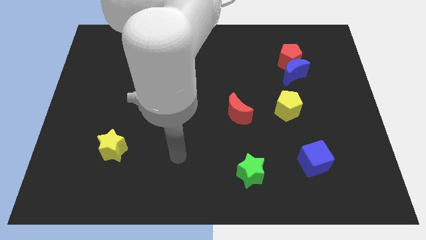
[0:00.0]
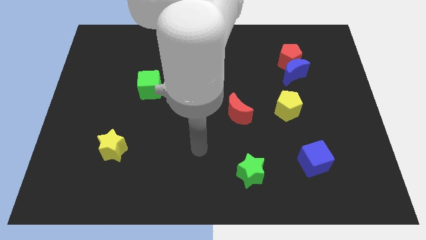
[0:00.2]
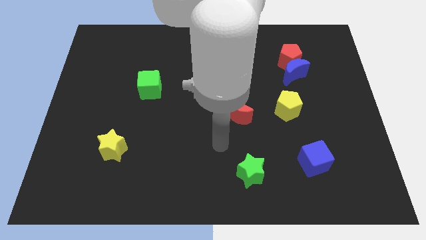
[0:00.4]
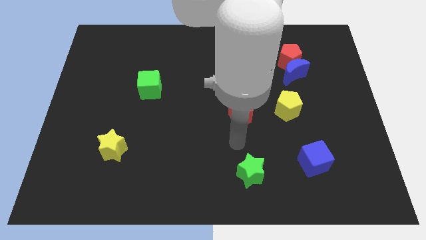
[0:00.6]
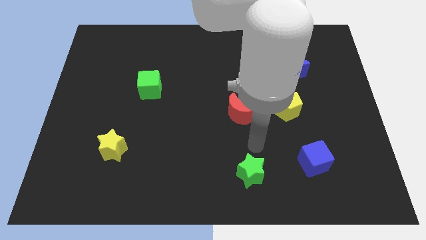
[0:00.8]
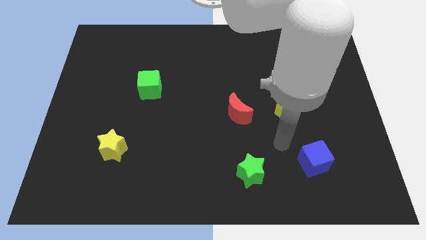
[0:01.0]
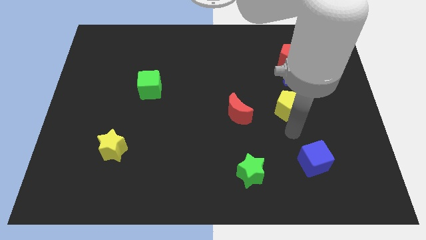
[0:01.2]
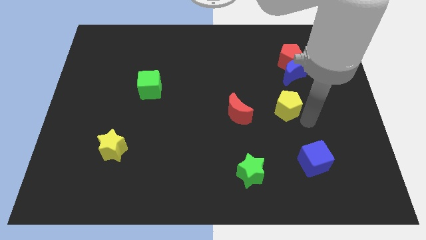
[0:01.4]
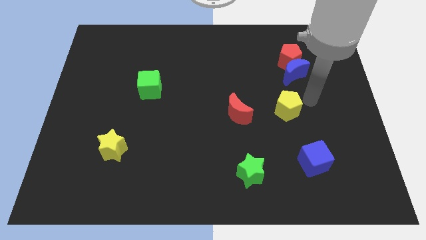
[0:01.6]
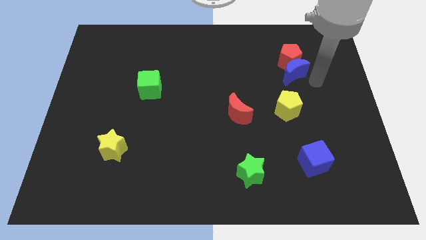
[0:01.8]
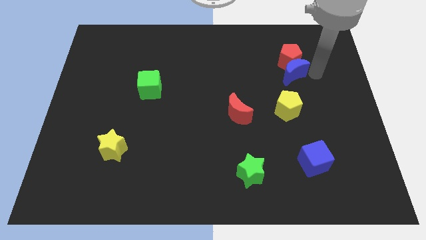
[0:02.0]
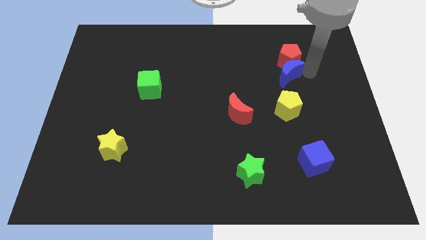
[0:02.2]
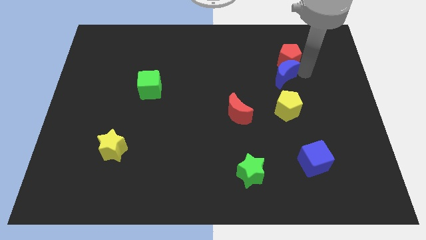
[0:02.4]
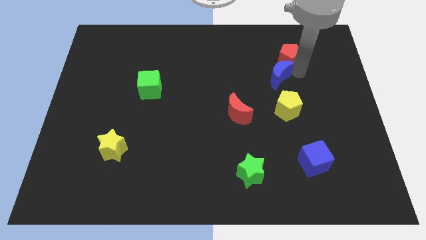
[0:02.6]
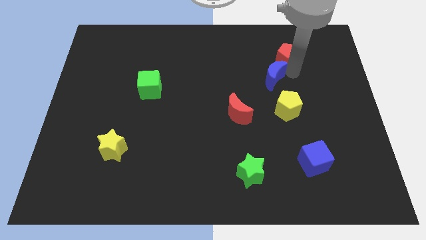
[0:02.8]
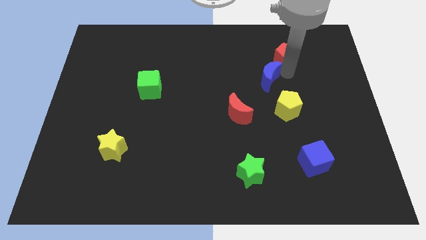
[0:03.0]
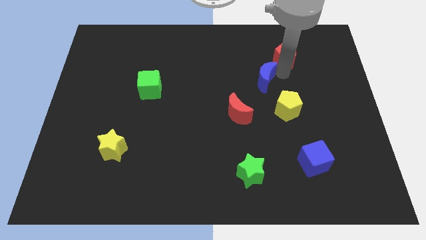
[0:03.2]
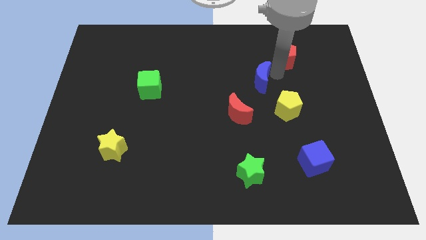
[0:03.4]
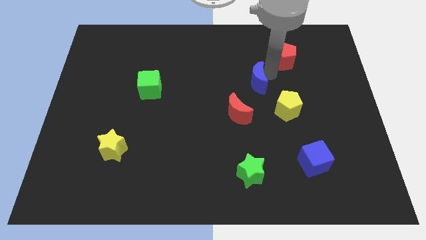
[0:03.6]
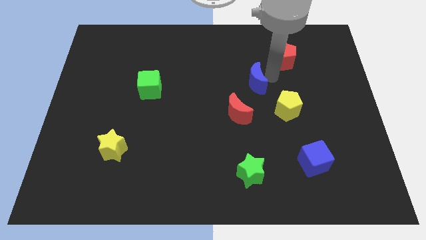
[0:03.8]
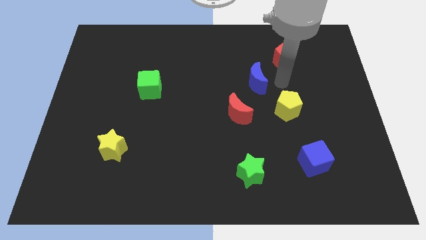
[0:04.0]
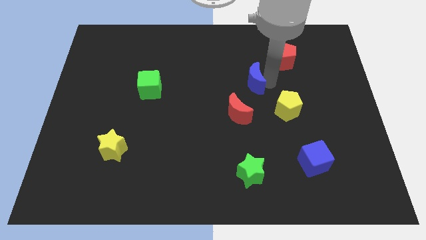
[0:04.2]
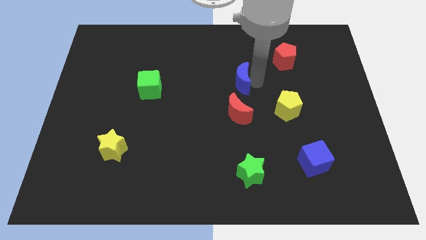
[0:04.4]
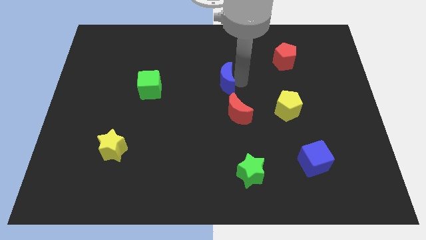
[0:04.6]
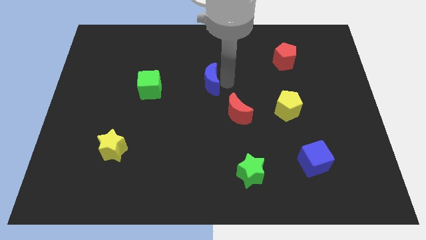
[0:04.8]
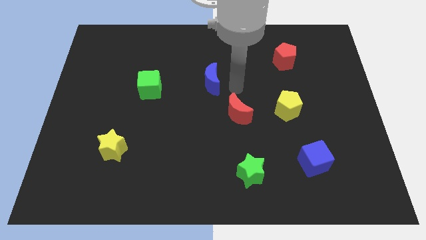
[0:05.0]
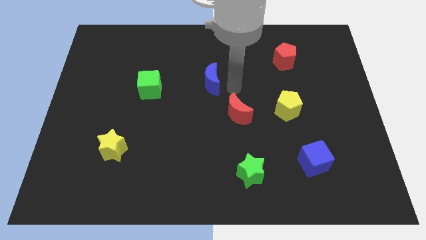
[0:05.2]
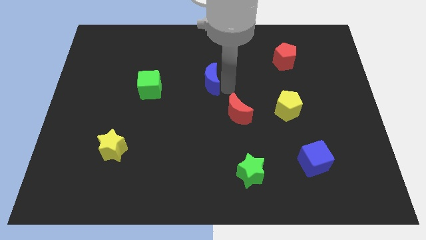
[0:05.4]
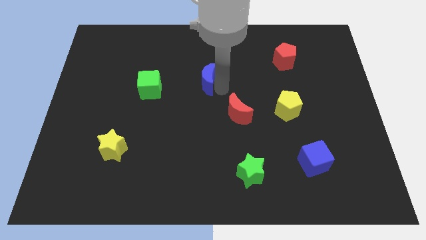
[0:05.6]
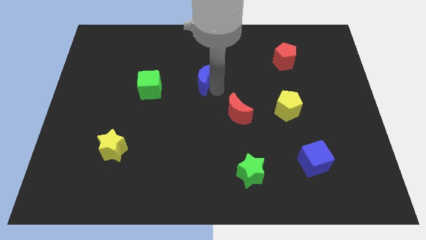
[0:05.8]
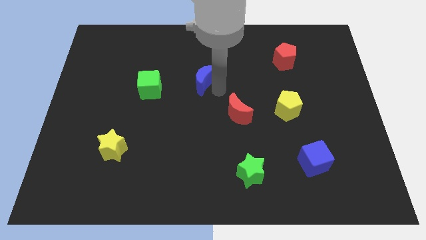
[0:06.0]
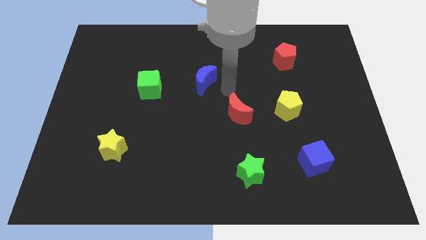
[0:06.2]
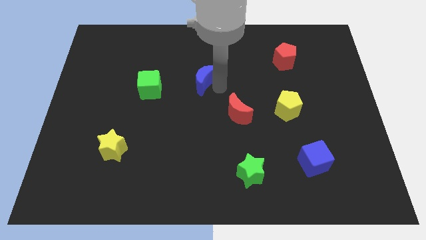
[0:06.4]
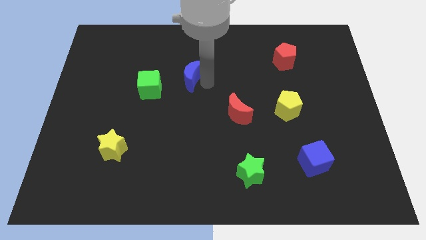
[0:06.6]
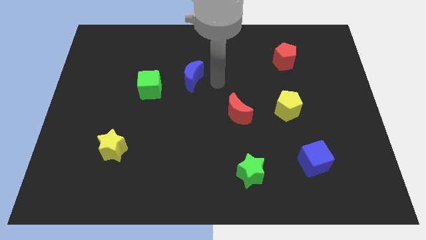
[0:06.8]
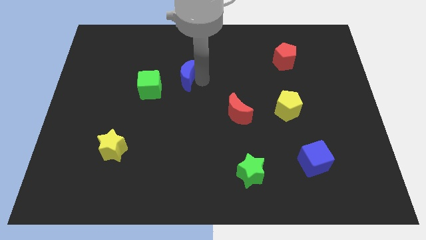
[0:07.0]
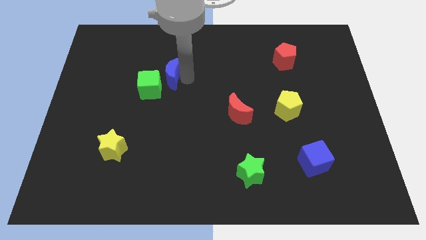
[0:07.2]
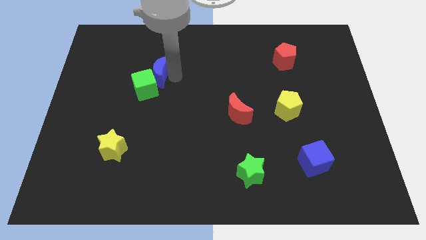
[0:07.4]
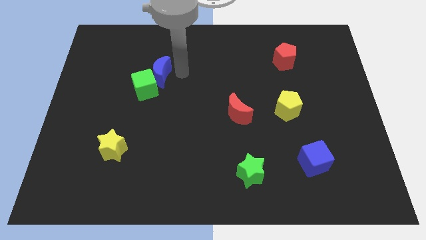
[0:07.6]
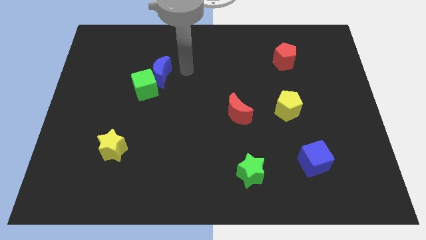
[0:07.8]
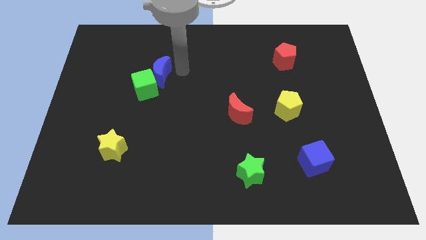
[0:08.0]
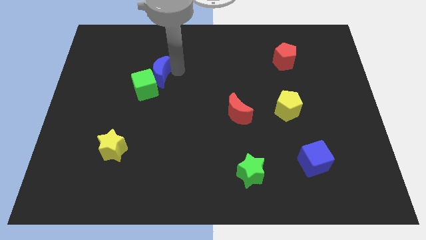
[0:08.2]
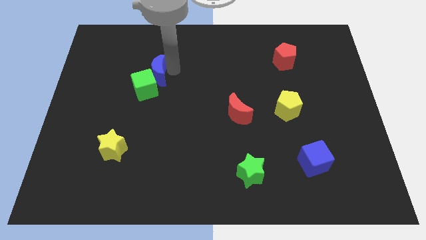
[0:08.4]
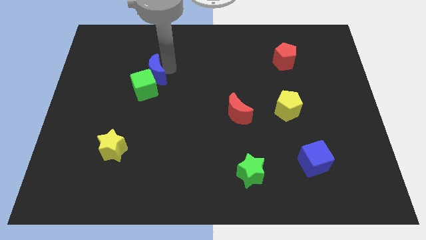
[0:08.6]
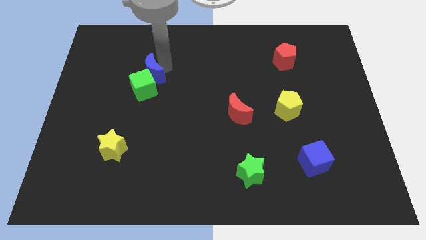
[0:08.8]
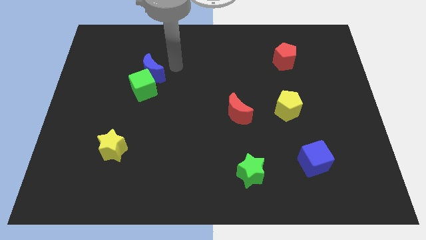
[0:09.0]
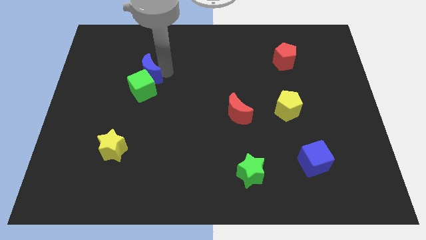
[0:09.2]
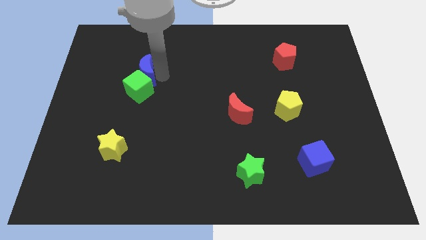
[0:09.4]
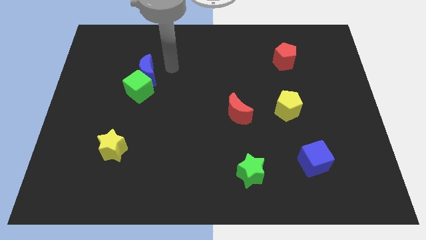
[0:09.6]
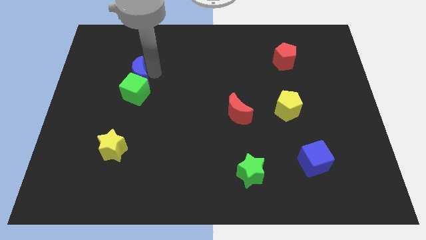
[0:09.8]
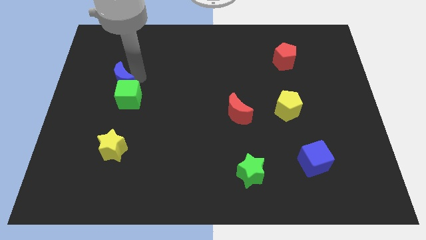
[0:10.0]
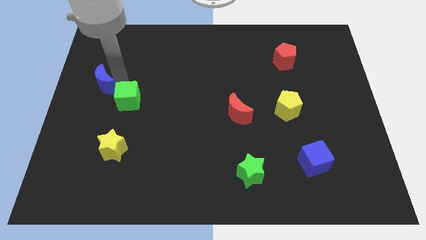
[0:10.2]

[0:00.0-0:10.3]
slide the blue moon to the left of the green cube

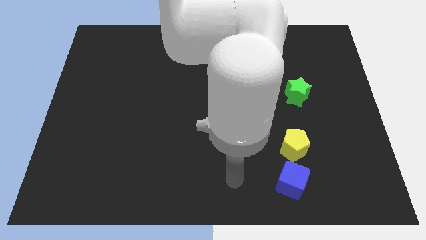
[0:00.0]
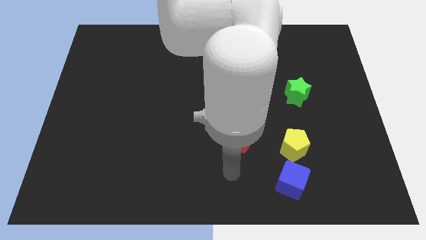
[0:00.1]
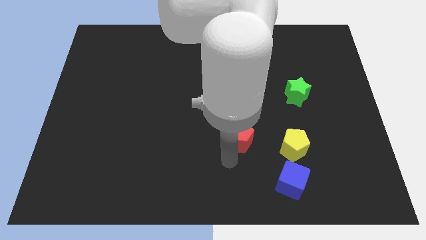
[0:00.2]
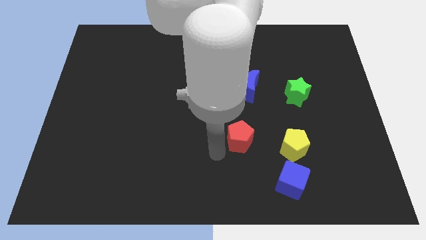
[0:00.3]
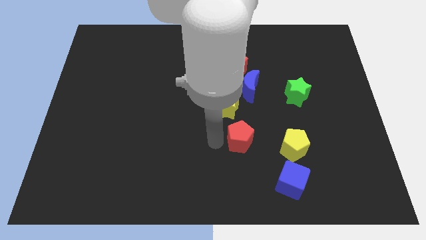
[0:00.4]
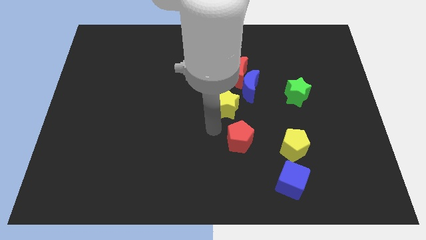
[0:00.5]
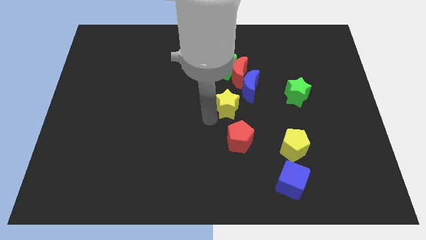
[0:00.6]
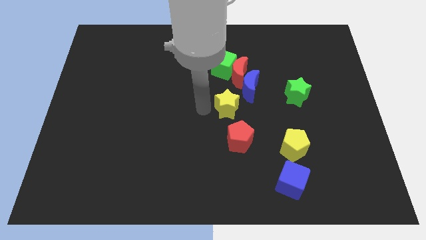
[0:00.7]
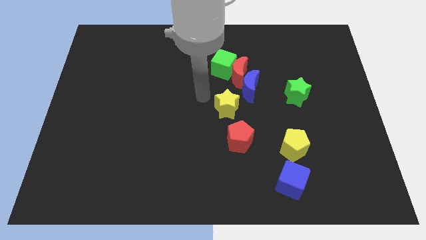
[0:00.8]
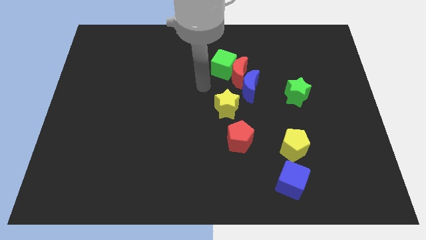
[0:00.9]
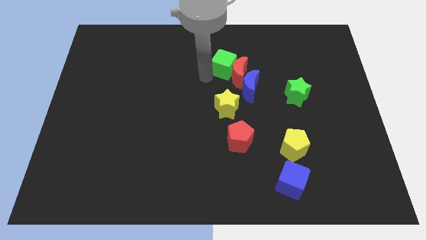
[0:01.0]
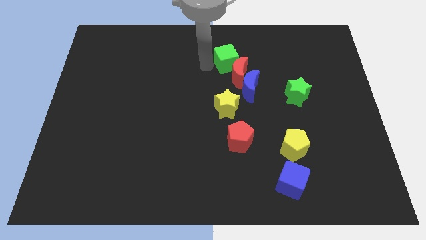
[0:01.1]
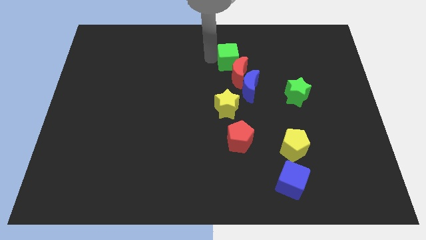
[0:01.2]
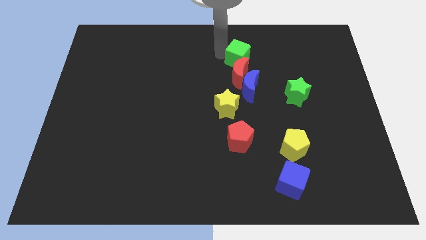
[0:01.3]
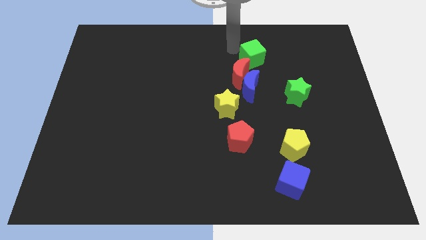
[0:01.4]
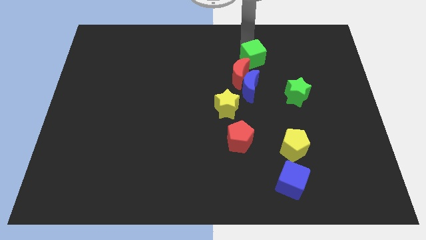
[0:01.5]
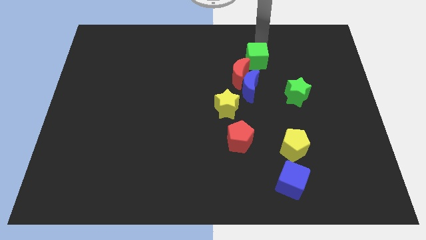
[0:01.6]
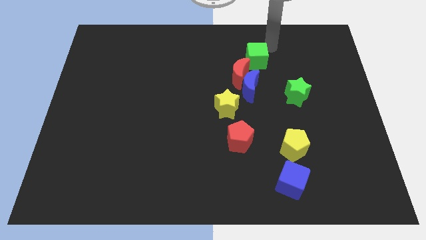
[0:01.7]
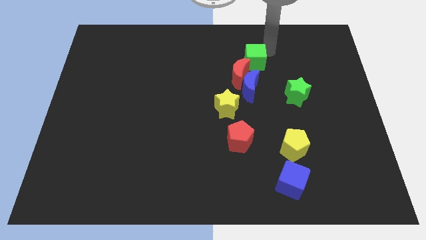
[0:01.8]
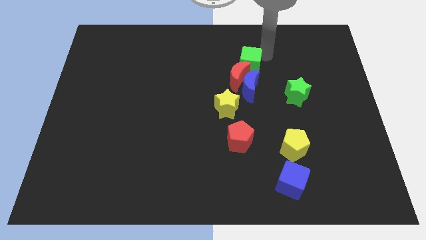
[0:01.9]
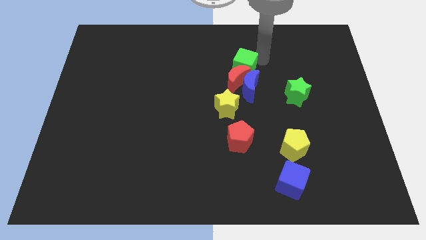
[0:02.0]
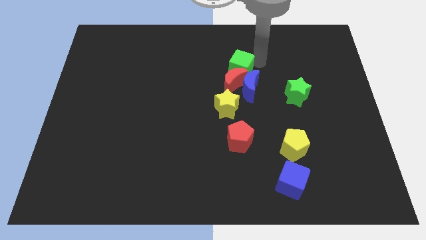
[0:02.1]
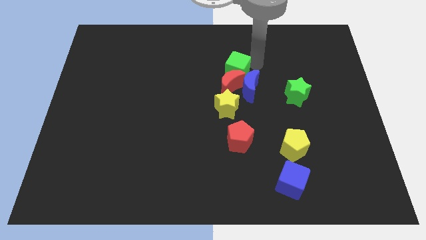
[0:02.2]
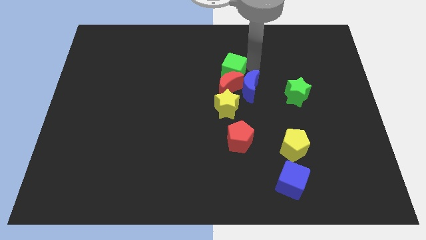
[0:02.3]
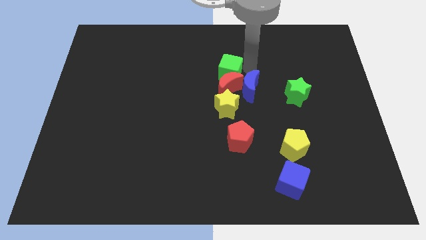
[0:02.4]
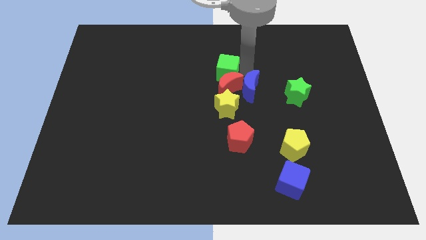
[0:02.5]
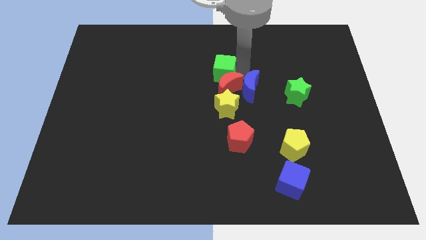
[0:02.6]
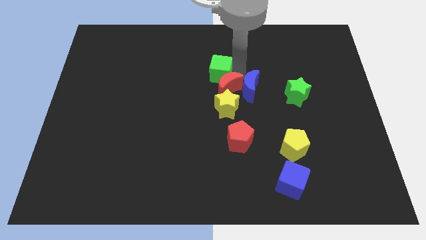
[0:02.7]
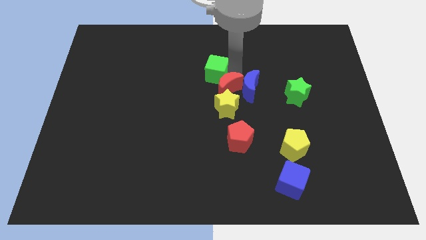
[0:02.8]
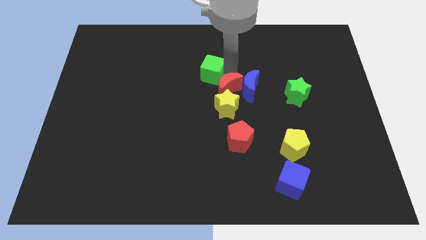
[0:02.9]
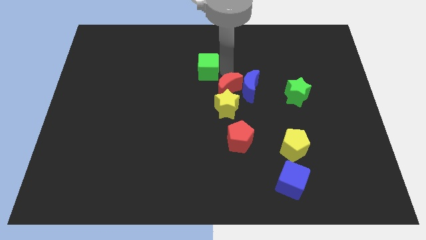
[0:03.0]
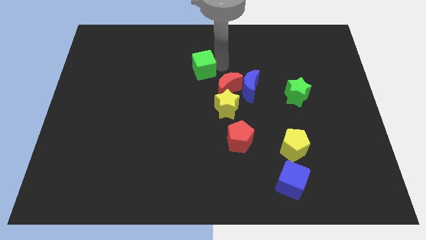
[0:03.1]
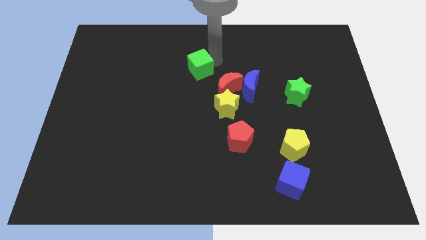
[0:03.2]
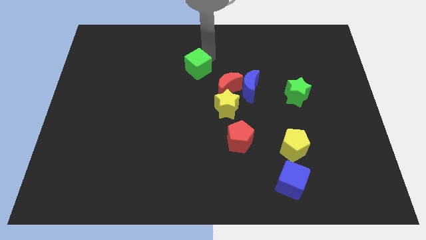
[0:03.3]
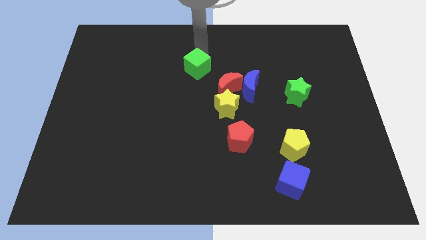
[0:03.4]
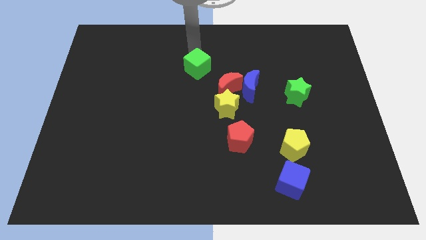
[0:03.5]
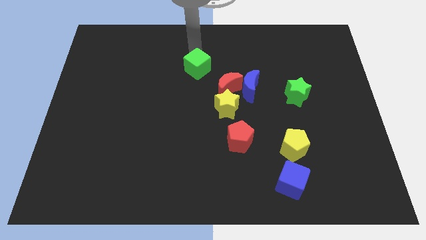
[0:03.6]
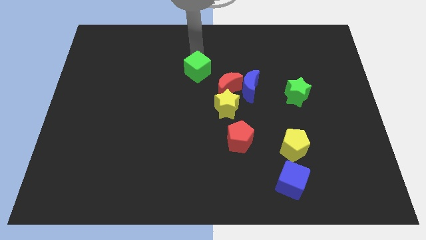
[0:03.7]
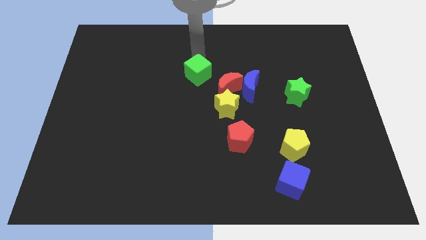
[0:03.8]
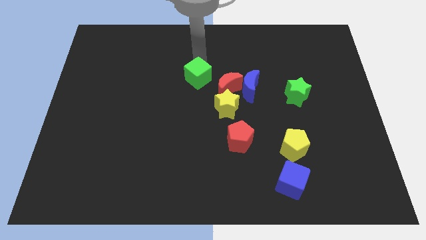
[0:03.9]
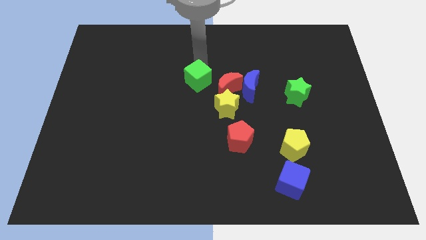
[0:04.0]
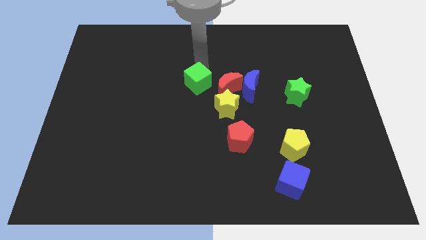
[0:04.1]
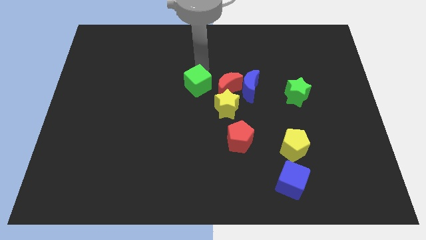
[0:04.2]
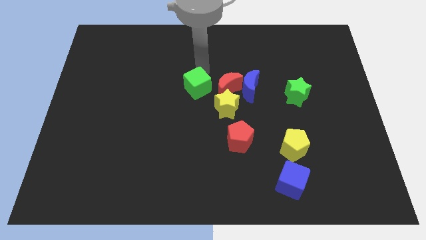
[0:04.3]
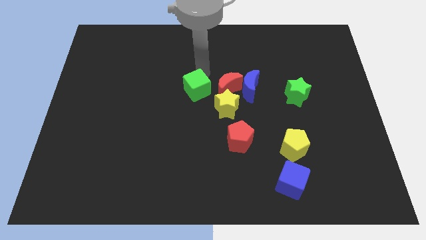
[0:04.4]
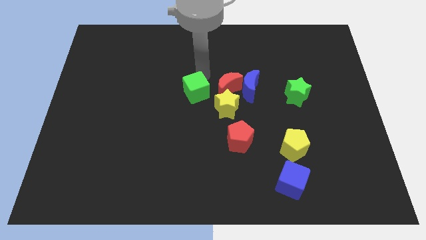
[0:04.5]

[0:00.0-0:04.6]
slide the green cube diagonally down and to the left of the red moon
